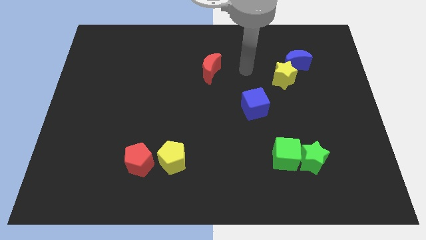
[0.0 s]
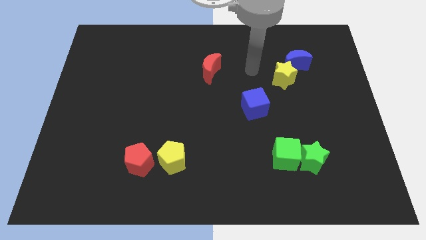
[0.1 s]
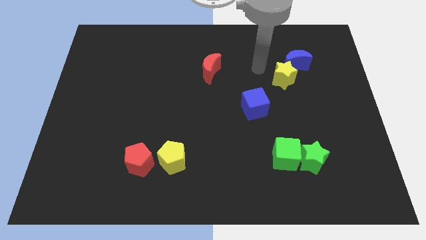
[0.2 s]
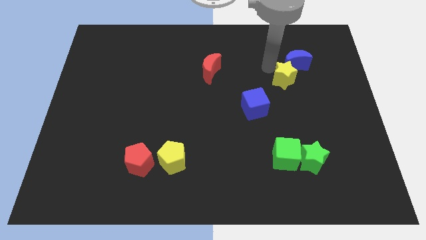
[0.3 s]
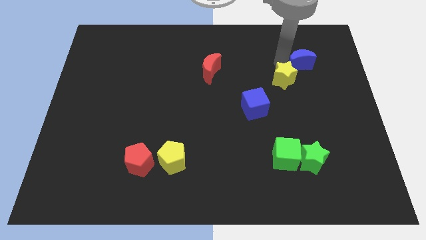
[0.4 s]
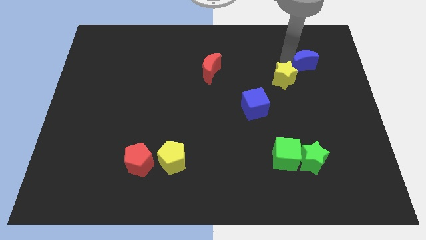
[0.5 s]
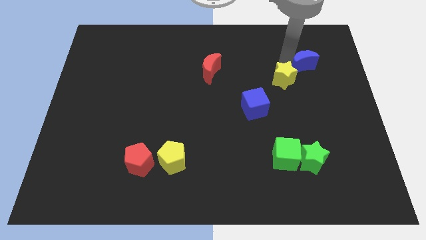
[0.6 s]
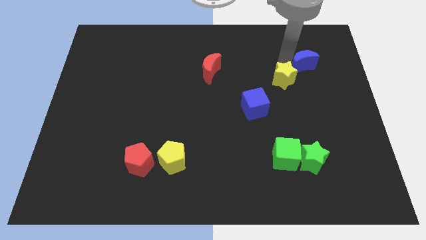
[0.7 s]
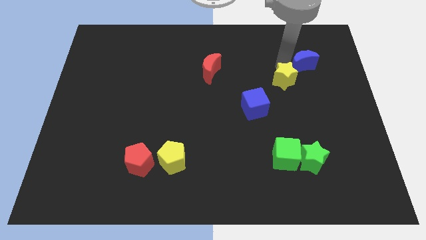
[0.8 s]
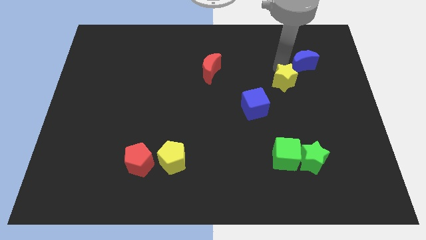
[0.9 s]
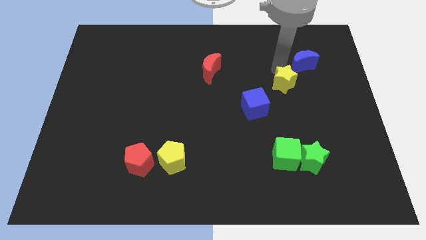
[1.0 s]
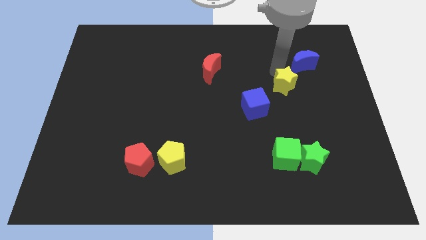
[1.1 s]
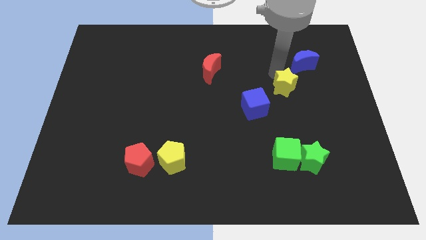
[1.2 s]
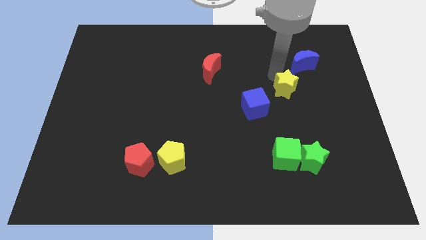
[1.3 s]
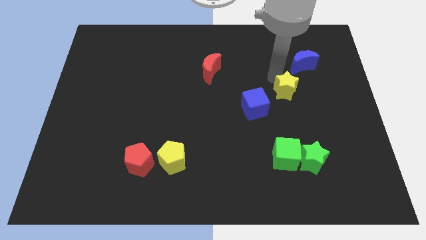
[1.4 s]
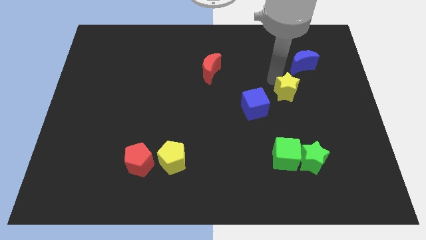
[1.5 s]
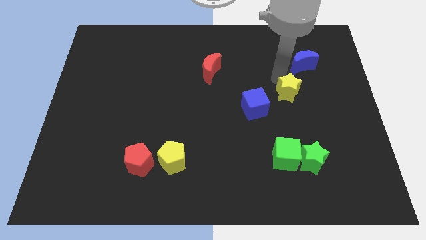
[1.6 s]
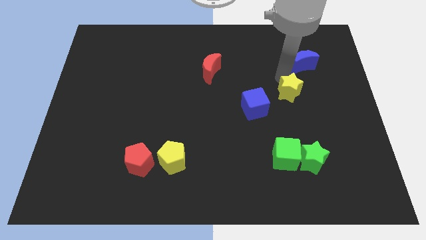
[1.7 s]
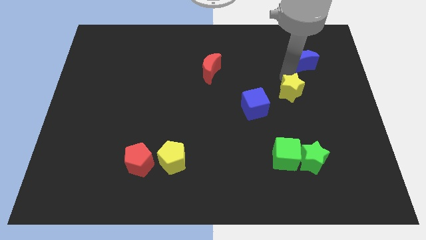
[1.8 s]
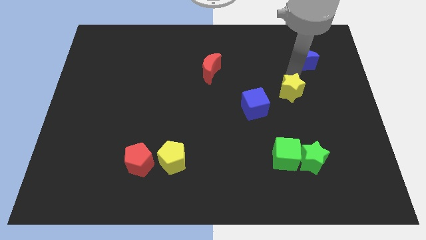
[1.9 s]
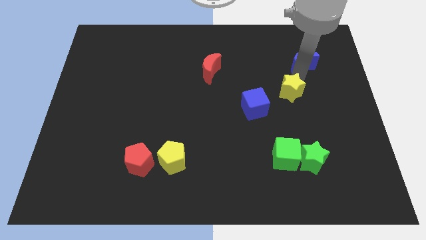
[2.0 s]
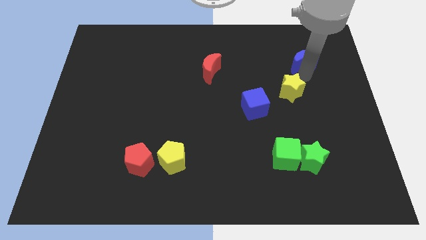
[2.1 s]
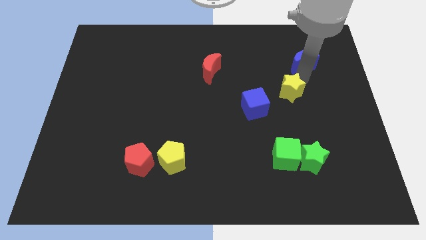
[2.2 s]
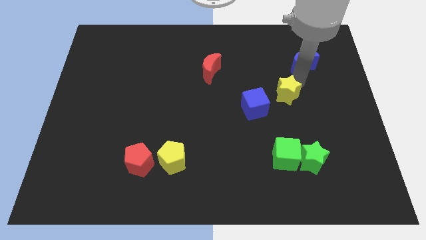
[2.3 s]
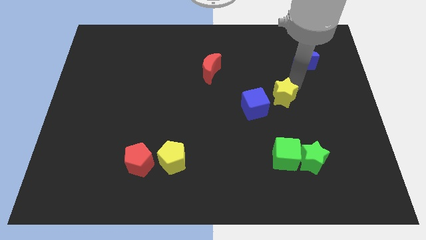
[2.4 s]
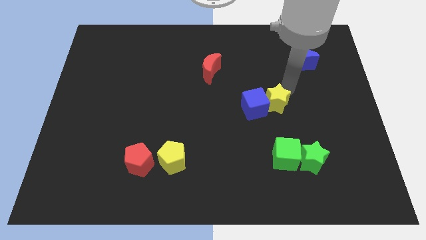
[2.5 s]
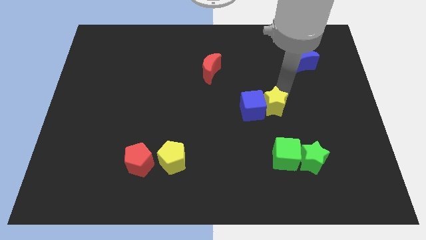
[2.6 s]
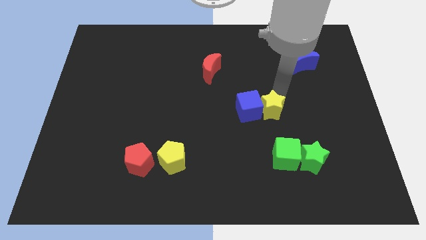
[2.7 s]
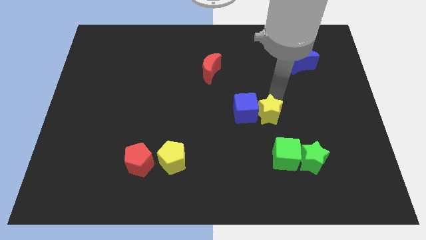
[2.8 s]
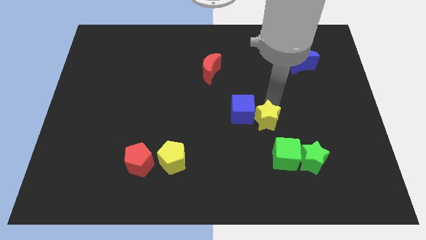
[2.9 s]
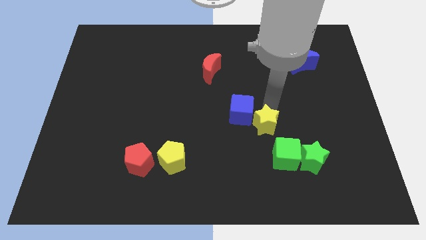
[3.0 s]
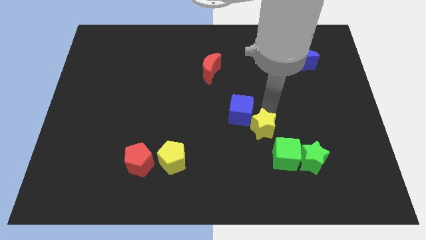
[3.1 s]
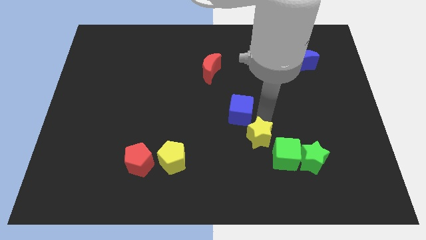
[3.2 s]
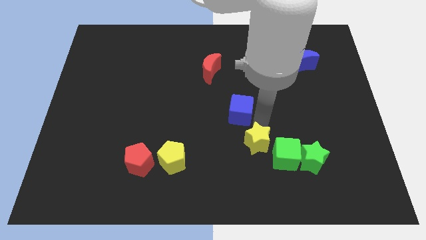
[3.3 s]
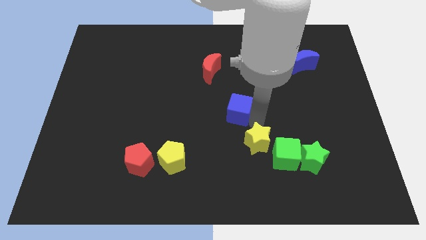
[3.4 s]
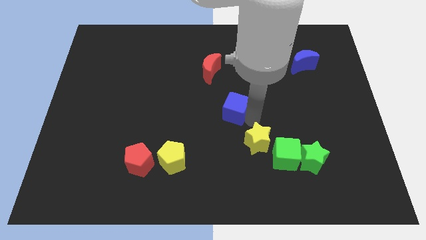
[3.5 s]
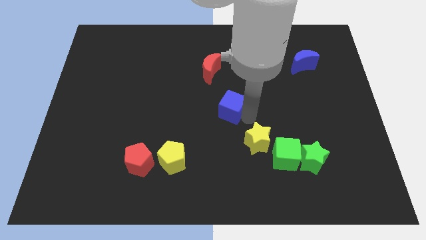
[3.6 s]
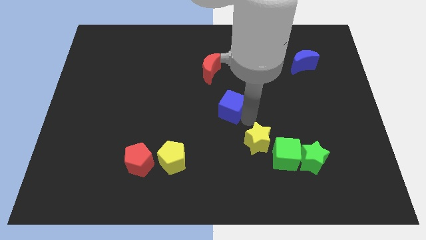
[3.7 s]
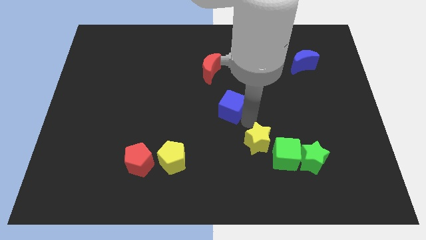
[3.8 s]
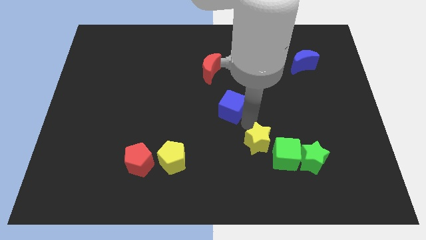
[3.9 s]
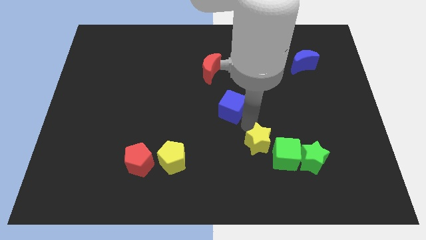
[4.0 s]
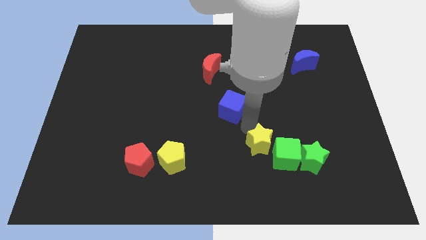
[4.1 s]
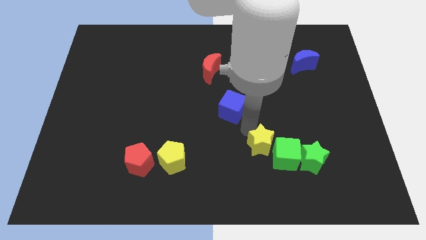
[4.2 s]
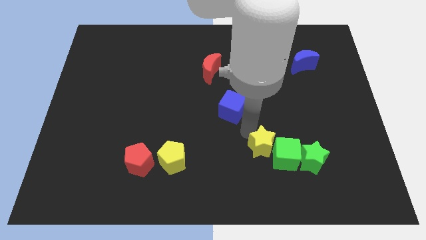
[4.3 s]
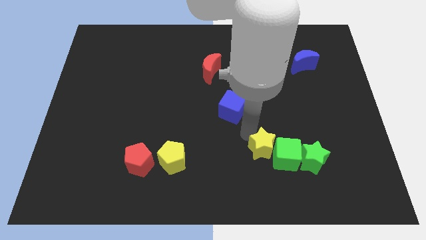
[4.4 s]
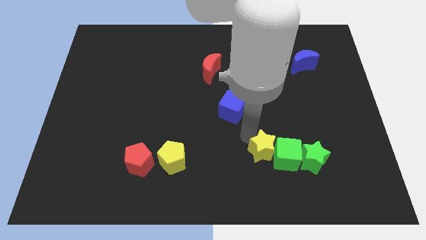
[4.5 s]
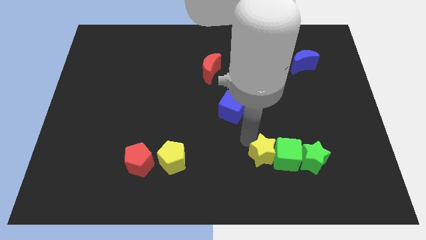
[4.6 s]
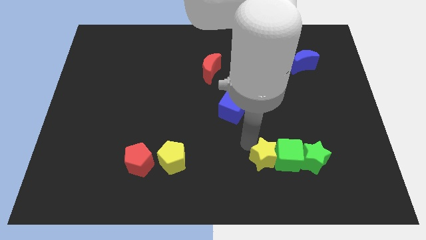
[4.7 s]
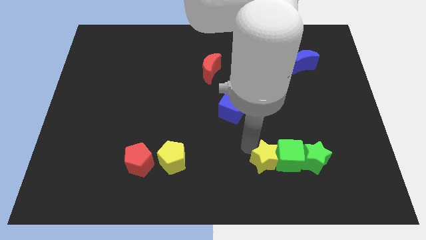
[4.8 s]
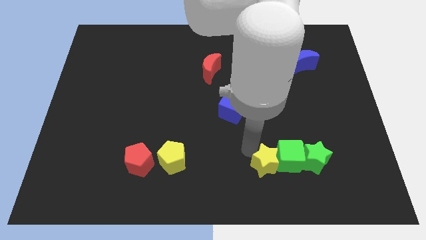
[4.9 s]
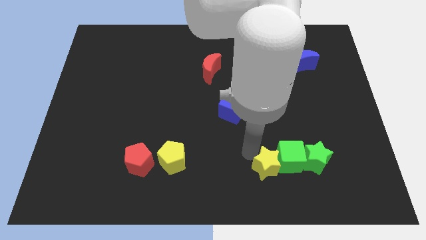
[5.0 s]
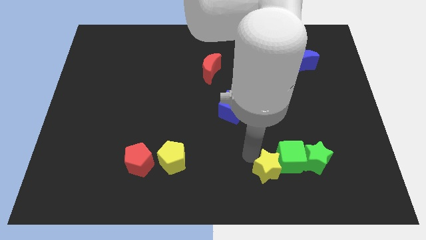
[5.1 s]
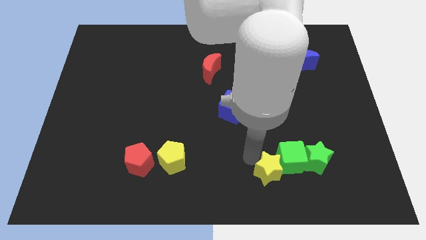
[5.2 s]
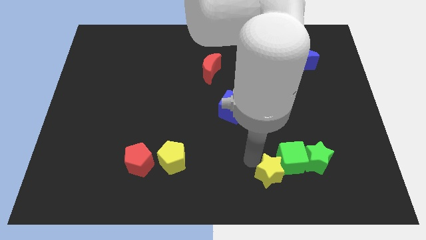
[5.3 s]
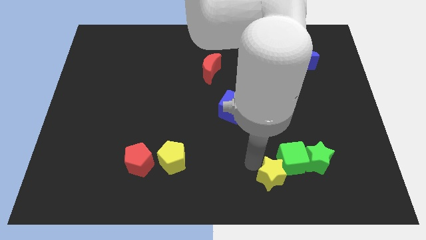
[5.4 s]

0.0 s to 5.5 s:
slide the yellow star to the bottom left side of the green star
